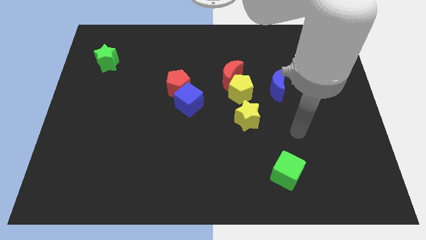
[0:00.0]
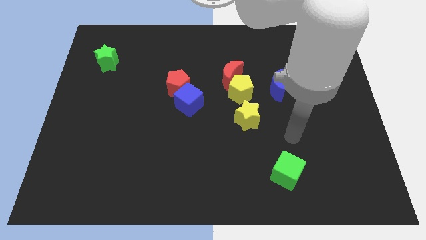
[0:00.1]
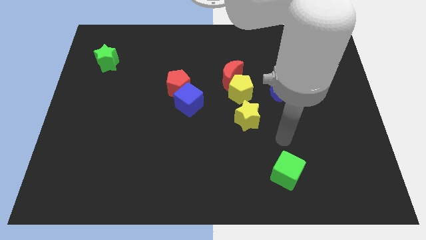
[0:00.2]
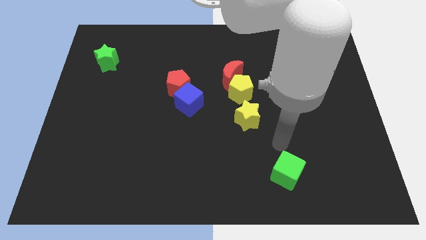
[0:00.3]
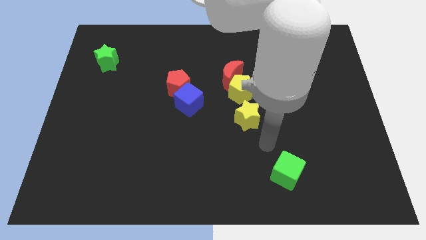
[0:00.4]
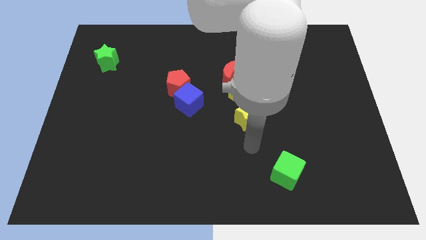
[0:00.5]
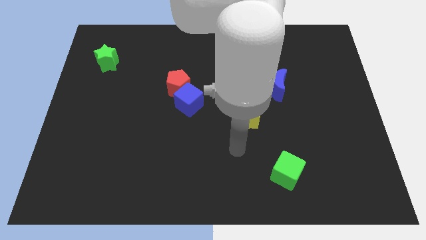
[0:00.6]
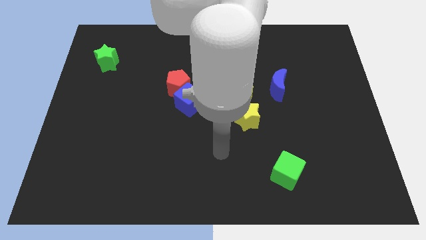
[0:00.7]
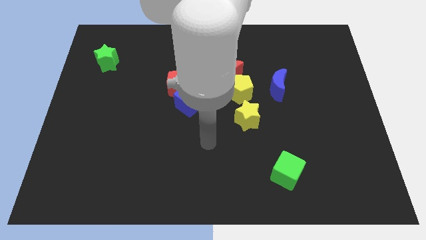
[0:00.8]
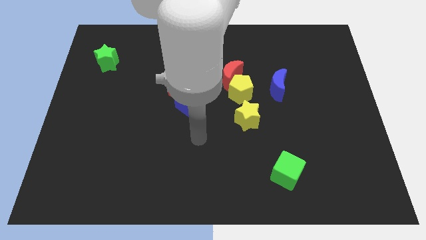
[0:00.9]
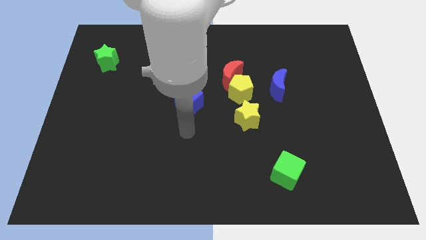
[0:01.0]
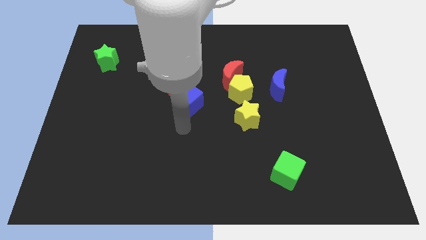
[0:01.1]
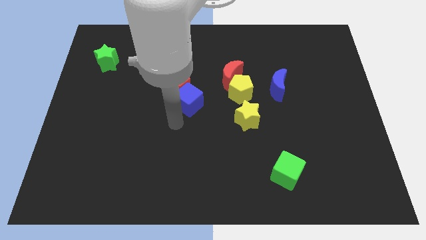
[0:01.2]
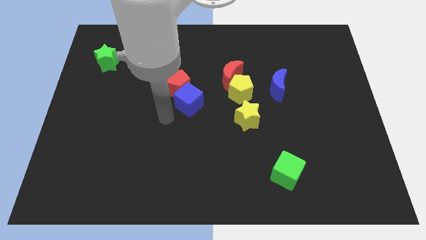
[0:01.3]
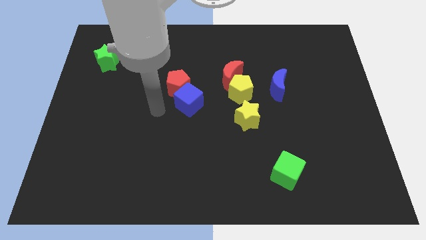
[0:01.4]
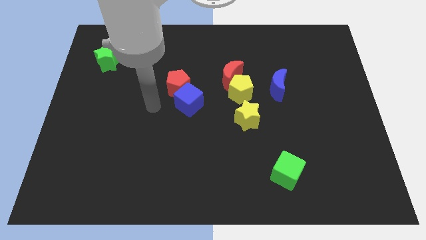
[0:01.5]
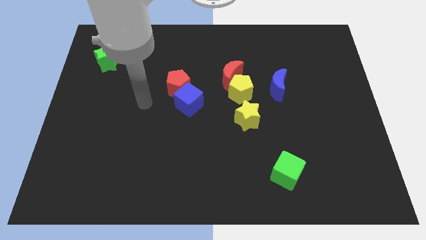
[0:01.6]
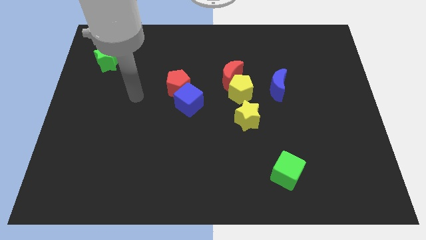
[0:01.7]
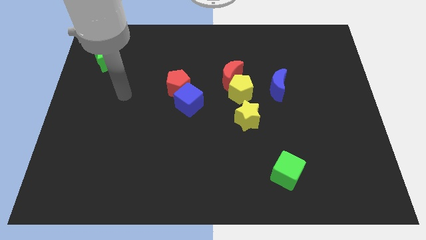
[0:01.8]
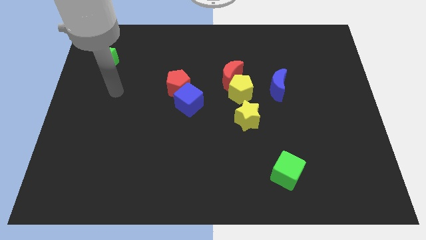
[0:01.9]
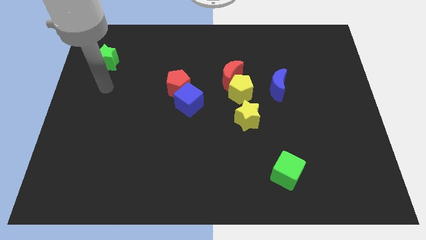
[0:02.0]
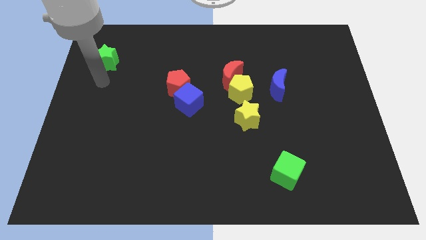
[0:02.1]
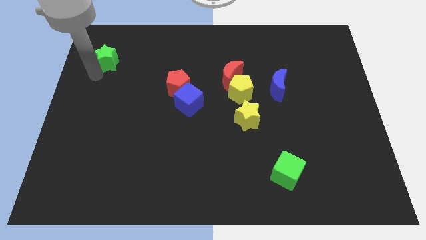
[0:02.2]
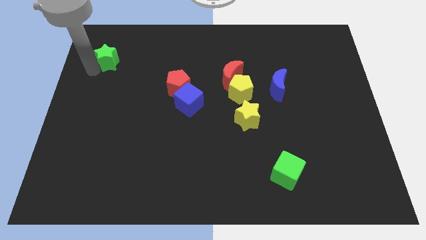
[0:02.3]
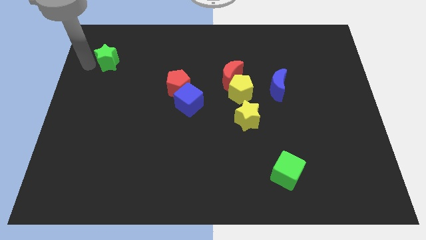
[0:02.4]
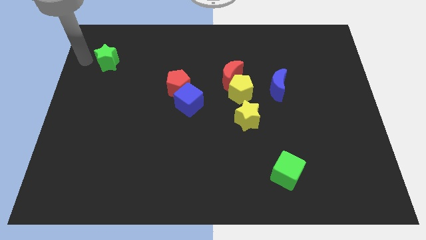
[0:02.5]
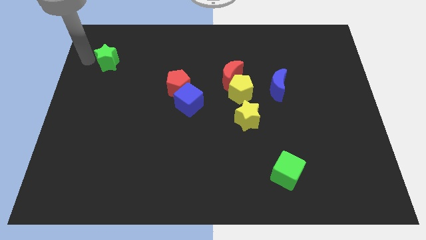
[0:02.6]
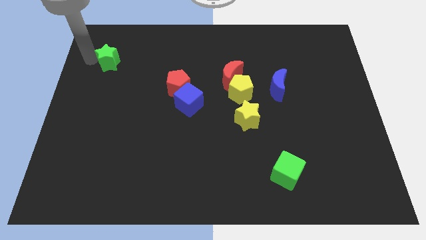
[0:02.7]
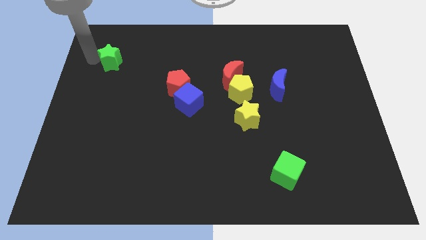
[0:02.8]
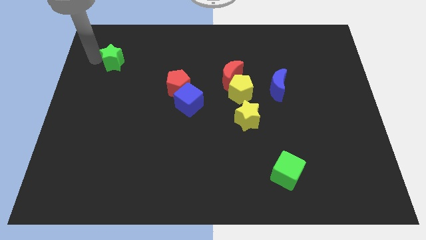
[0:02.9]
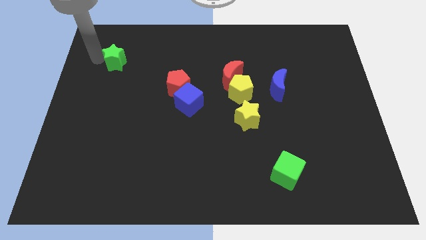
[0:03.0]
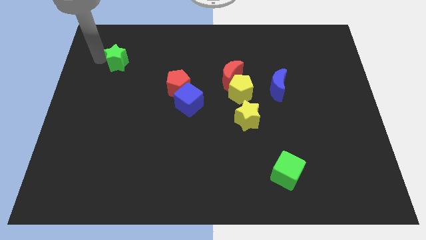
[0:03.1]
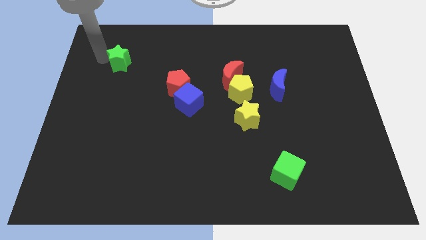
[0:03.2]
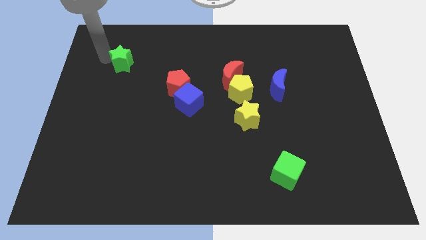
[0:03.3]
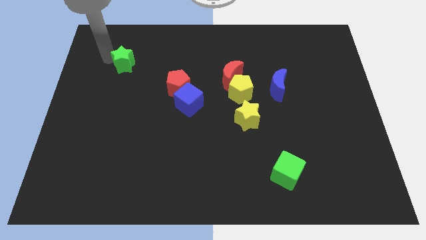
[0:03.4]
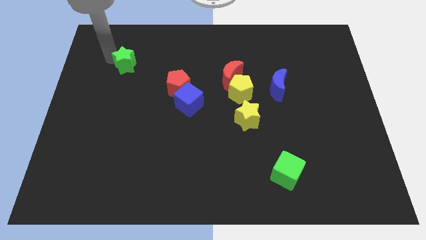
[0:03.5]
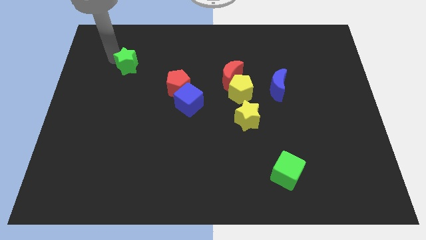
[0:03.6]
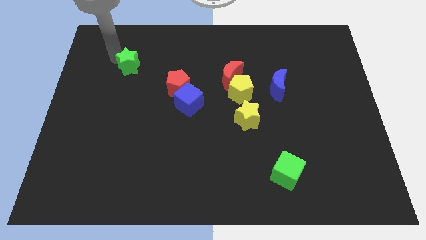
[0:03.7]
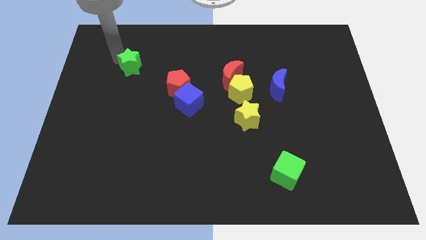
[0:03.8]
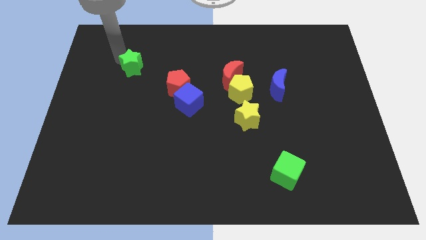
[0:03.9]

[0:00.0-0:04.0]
slide the green star to the right a little bit

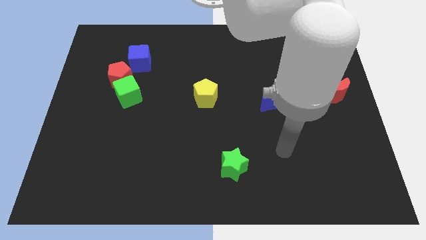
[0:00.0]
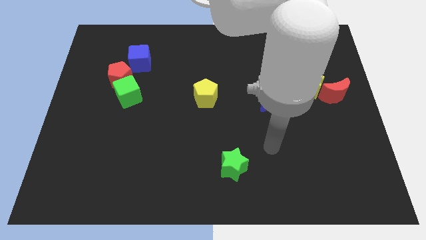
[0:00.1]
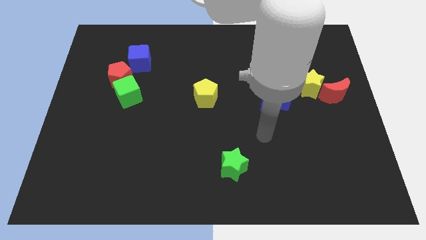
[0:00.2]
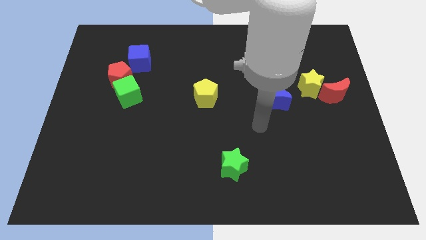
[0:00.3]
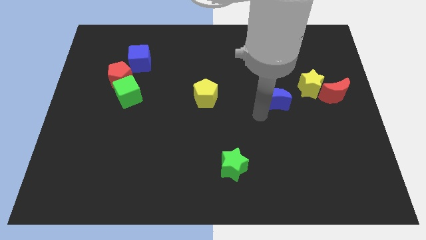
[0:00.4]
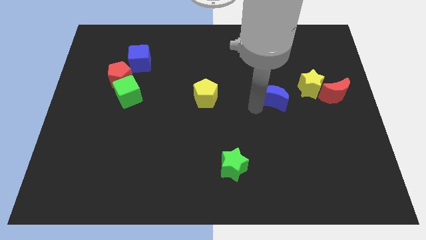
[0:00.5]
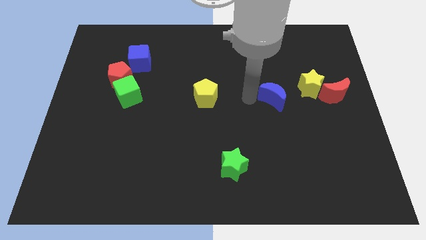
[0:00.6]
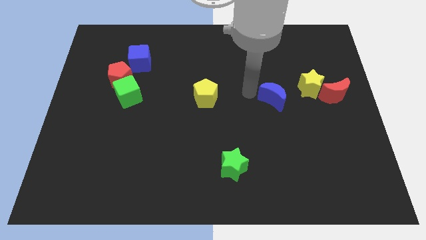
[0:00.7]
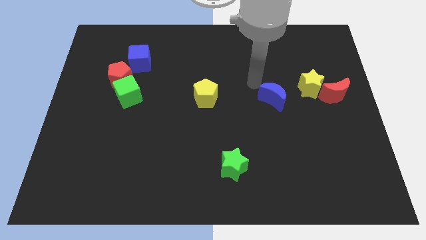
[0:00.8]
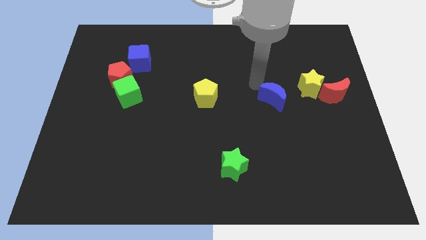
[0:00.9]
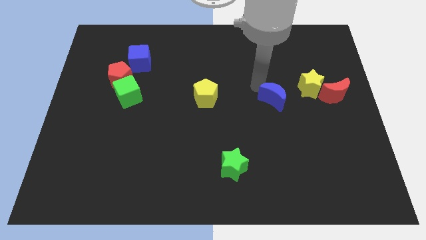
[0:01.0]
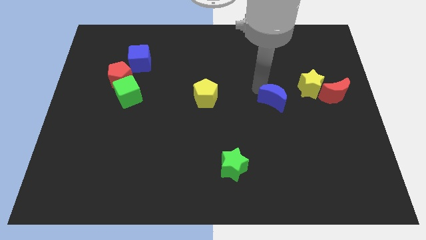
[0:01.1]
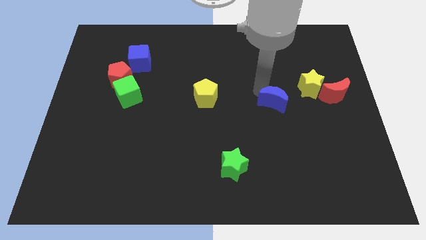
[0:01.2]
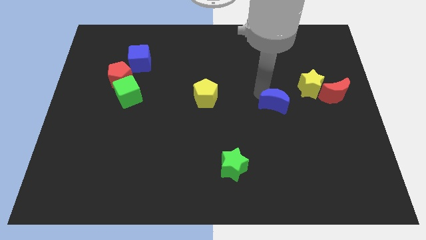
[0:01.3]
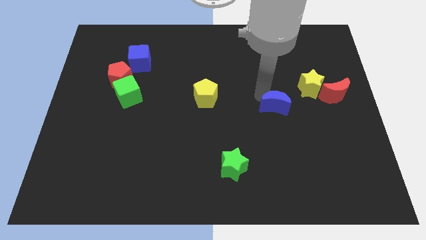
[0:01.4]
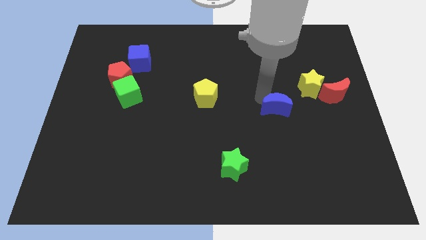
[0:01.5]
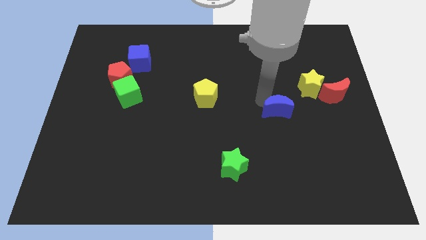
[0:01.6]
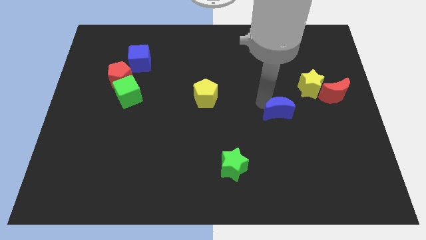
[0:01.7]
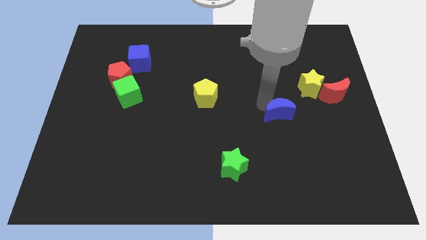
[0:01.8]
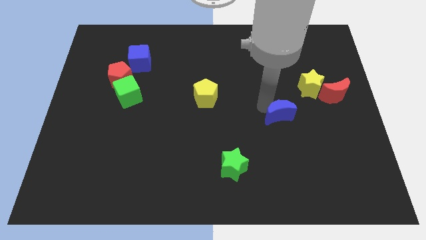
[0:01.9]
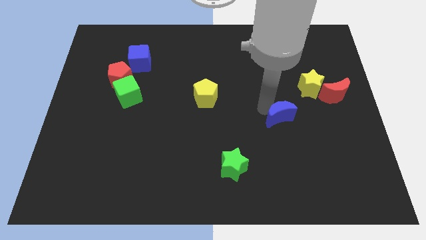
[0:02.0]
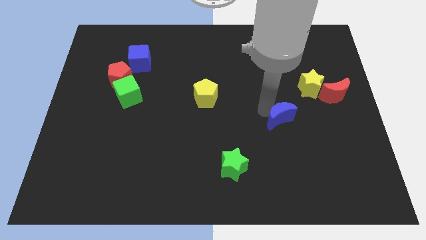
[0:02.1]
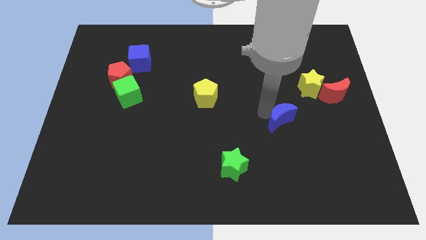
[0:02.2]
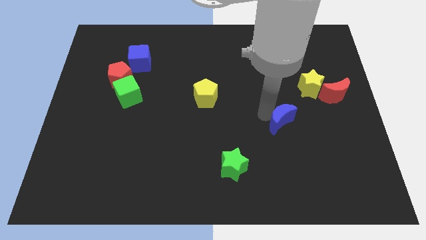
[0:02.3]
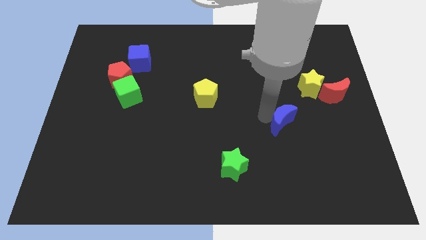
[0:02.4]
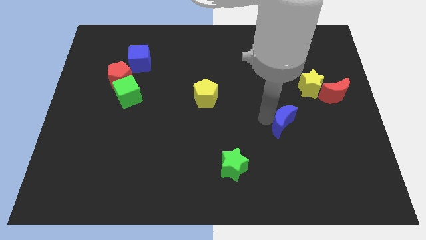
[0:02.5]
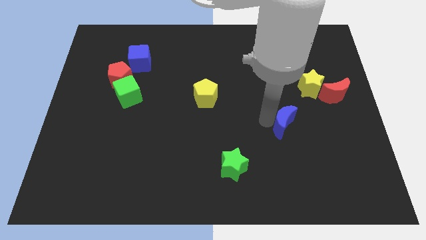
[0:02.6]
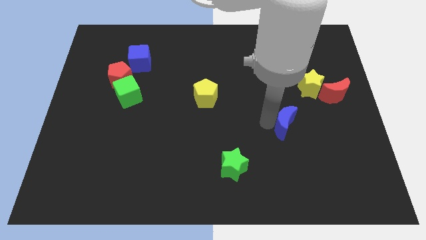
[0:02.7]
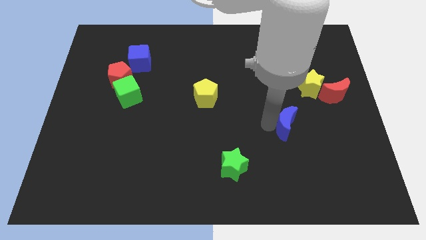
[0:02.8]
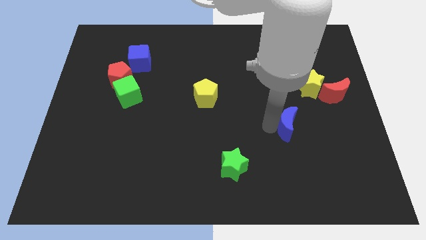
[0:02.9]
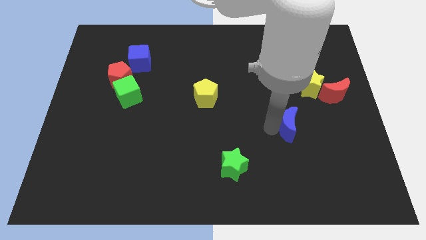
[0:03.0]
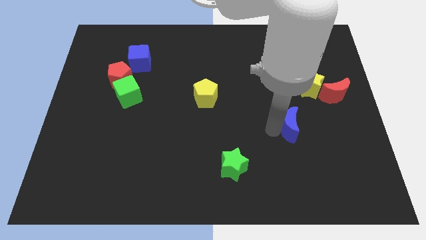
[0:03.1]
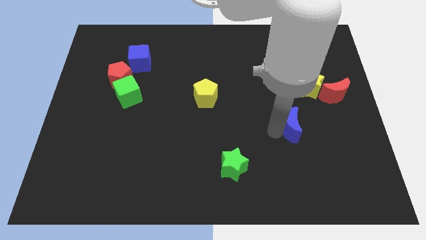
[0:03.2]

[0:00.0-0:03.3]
slide the blue moon somewhat downwards and to the right diagonally

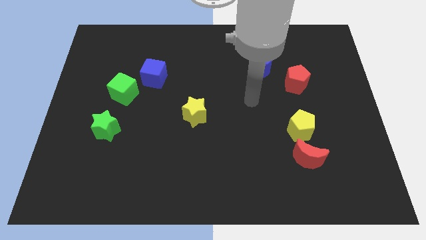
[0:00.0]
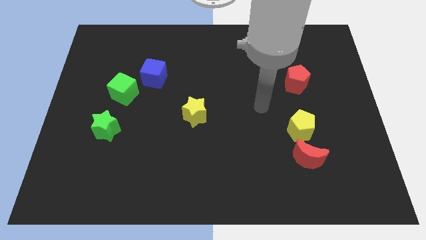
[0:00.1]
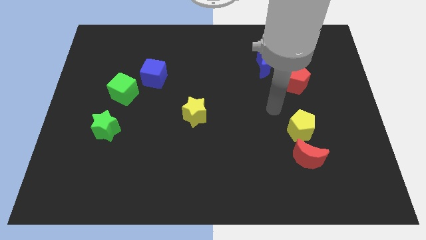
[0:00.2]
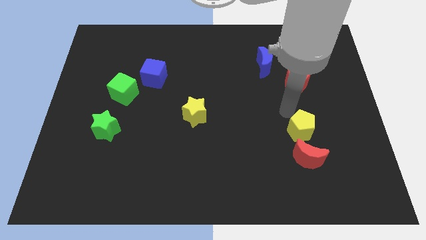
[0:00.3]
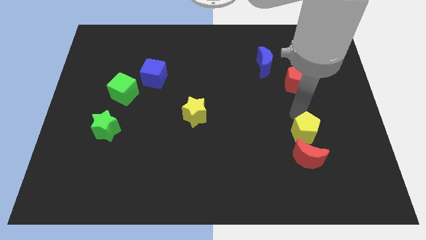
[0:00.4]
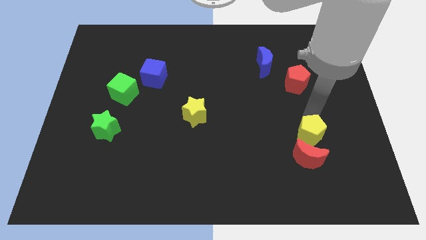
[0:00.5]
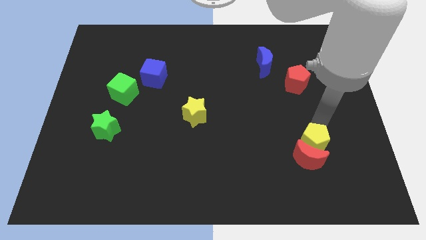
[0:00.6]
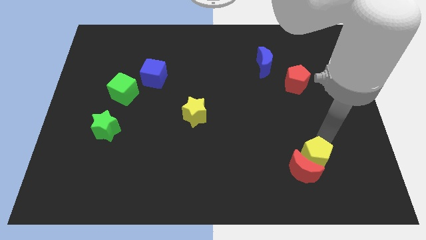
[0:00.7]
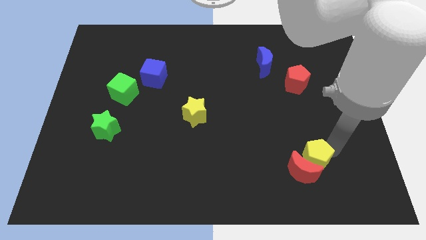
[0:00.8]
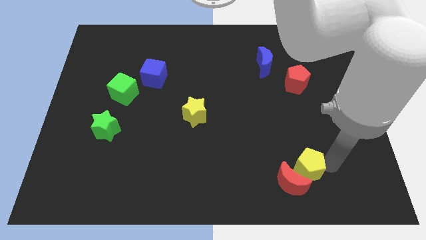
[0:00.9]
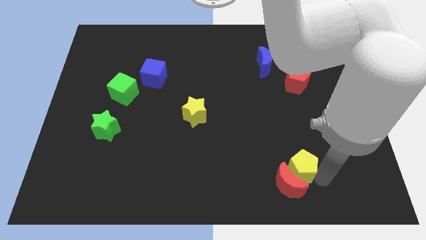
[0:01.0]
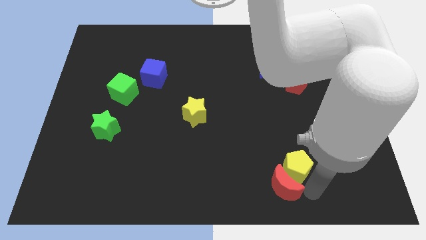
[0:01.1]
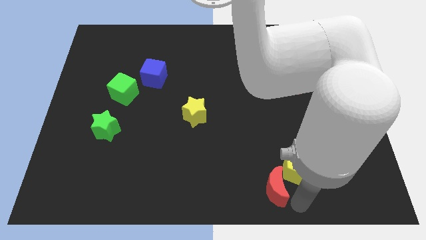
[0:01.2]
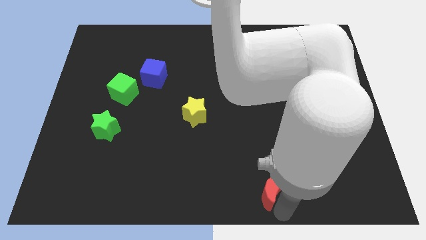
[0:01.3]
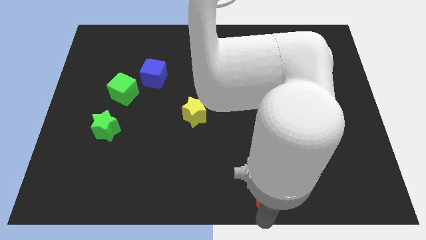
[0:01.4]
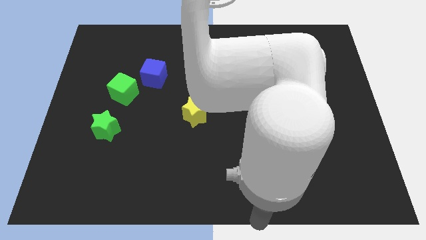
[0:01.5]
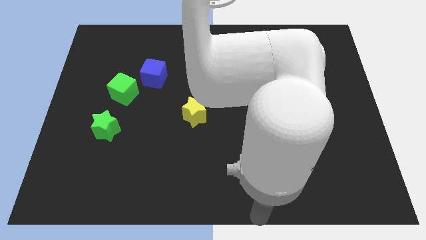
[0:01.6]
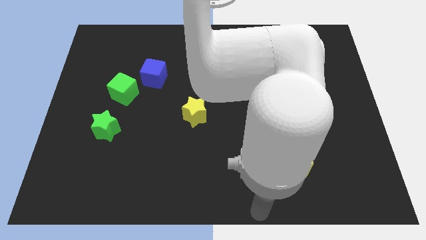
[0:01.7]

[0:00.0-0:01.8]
slightly move the red moon left
